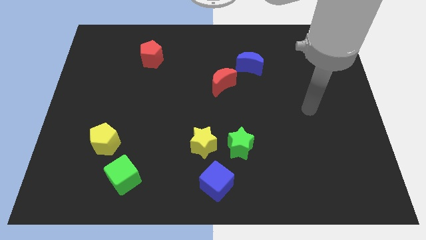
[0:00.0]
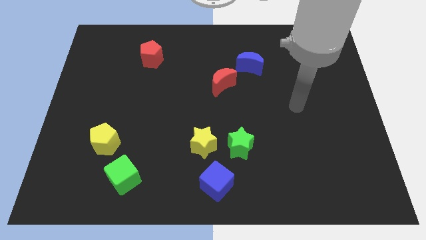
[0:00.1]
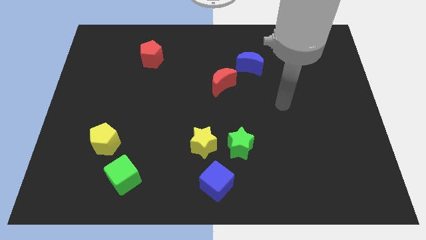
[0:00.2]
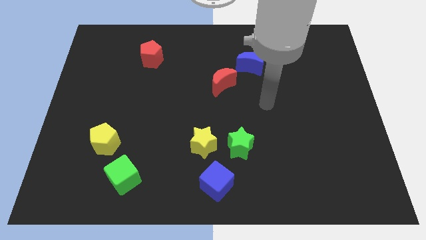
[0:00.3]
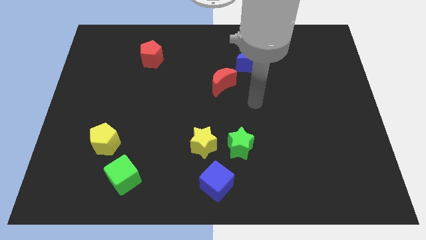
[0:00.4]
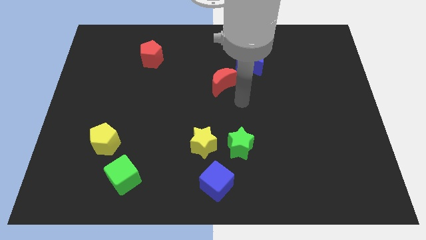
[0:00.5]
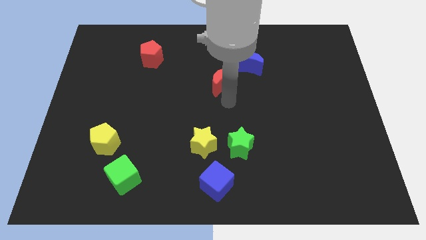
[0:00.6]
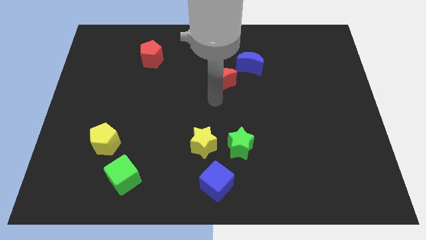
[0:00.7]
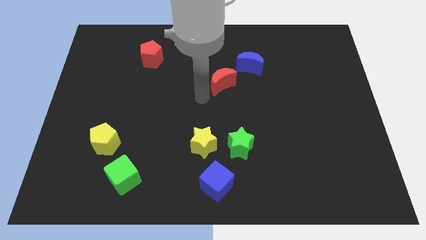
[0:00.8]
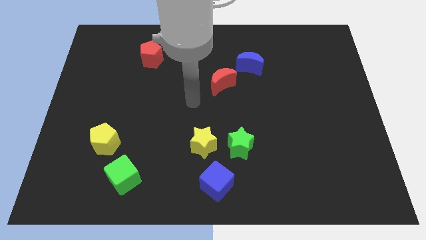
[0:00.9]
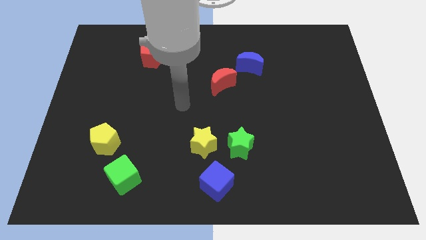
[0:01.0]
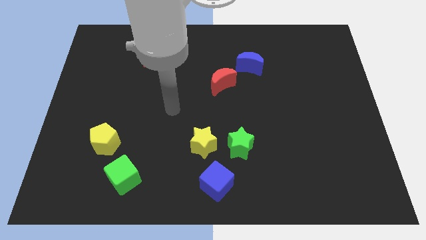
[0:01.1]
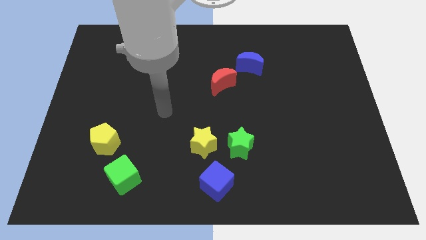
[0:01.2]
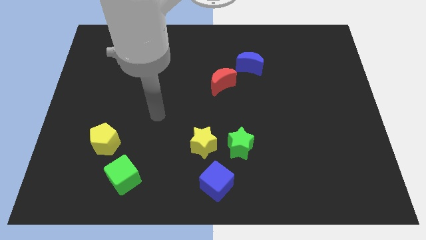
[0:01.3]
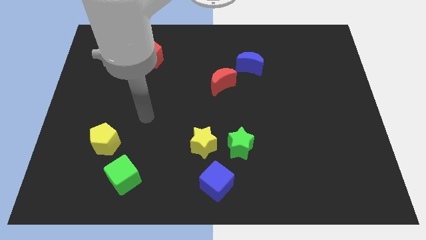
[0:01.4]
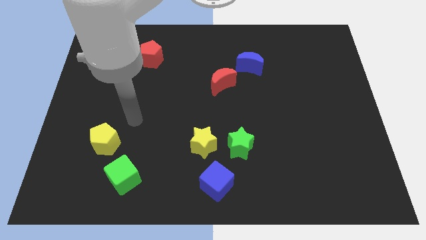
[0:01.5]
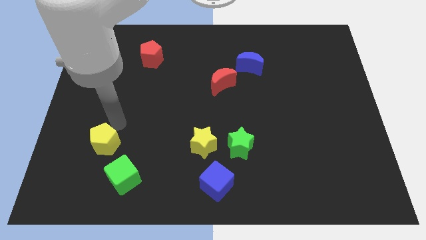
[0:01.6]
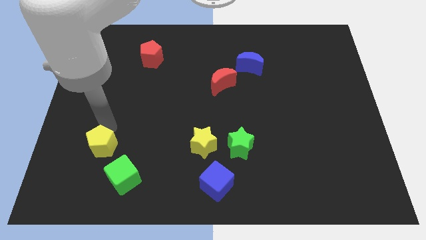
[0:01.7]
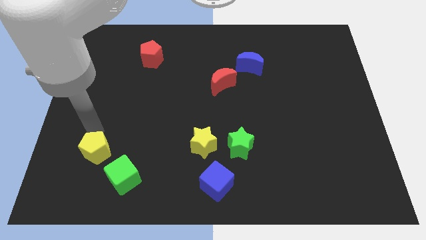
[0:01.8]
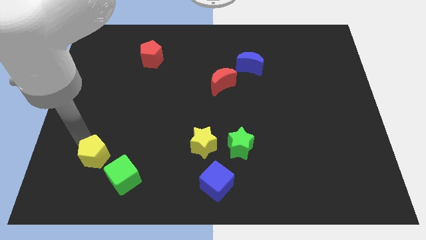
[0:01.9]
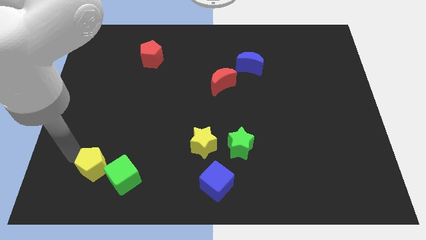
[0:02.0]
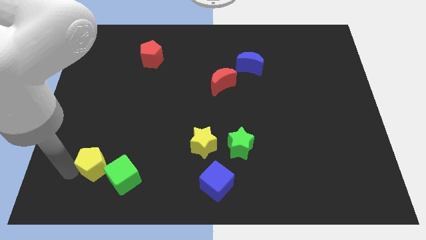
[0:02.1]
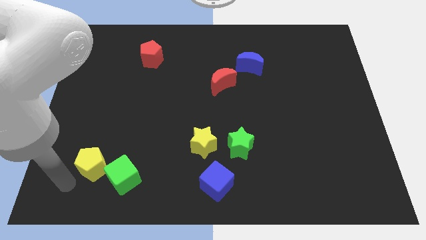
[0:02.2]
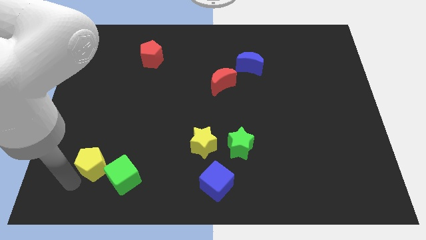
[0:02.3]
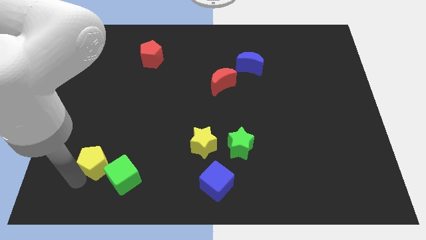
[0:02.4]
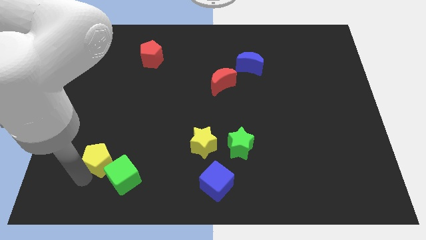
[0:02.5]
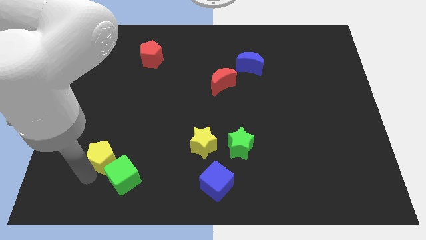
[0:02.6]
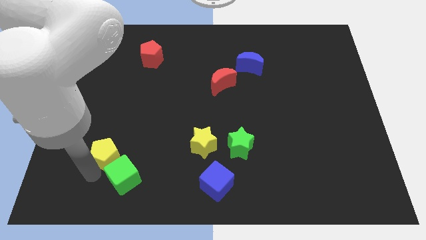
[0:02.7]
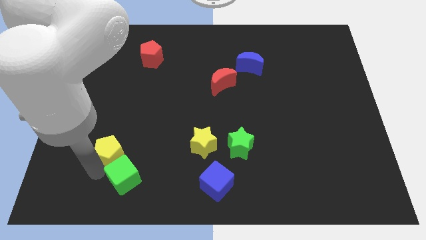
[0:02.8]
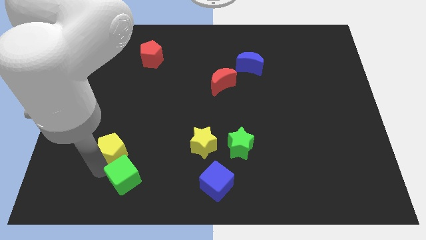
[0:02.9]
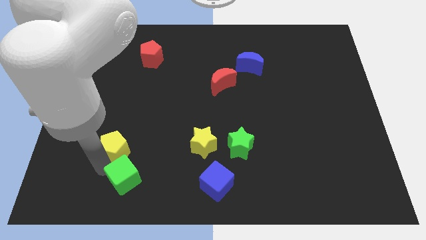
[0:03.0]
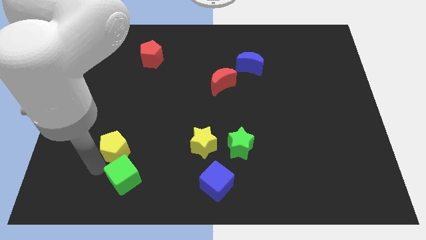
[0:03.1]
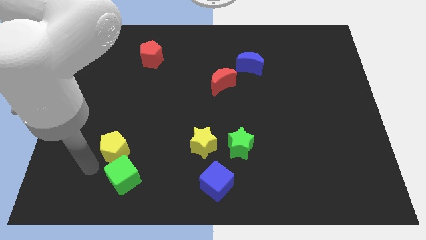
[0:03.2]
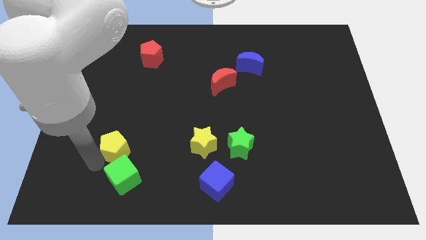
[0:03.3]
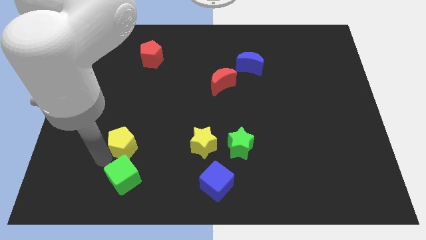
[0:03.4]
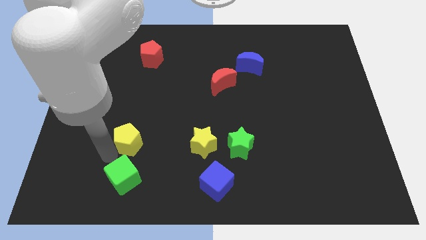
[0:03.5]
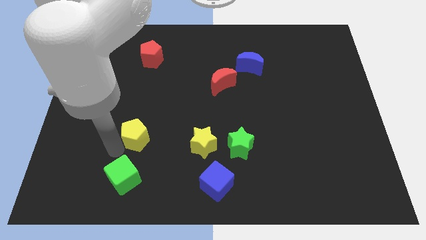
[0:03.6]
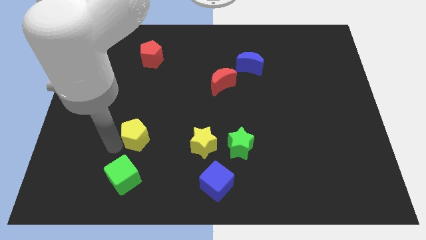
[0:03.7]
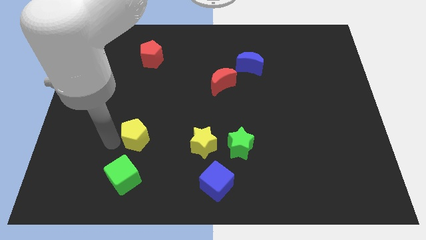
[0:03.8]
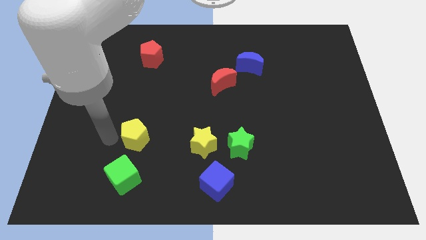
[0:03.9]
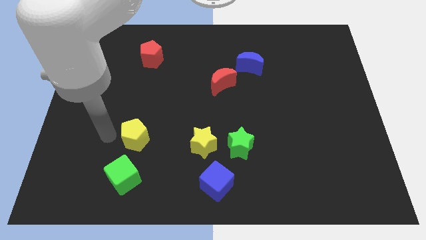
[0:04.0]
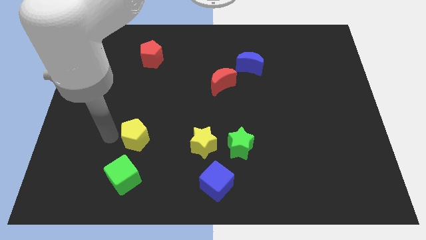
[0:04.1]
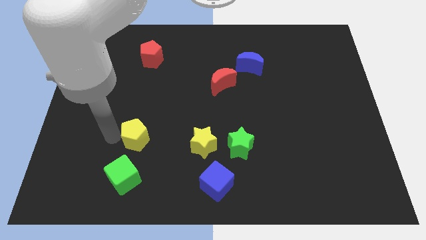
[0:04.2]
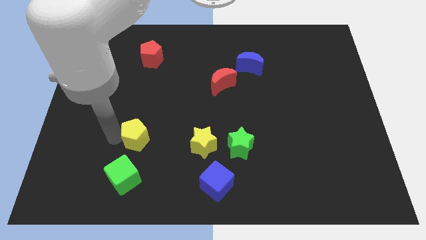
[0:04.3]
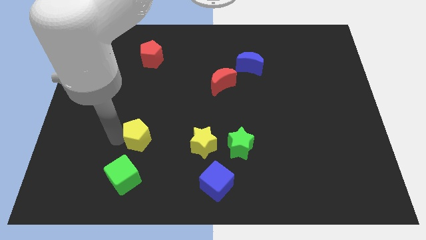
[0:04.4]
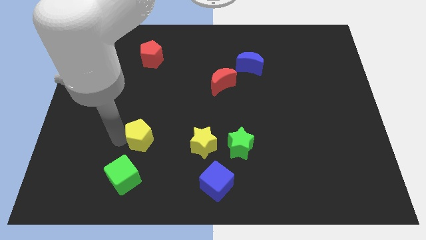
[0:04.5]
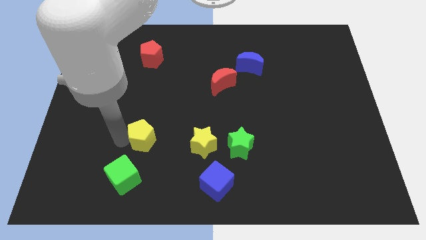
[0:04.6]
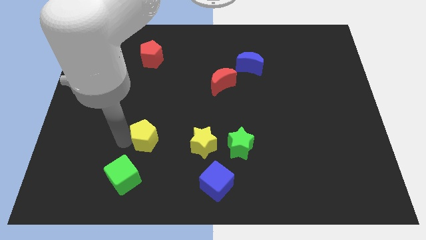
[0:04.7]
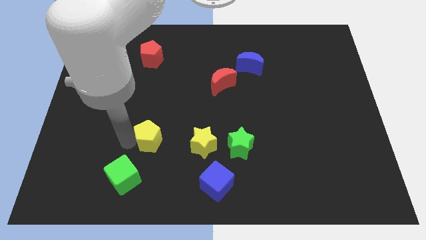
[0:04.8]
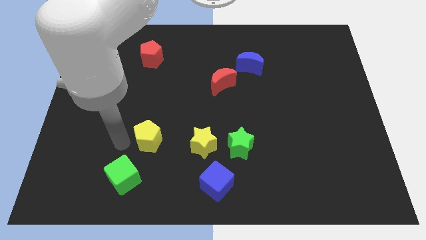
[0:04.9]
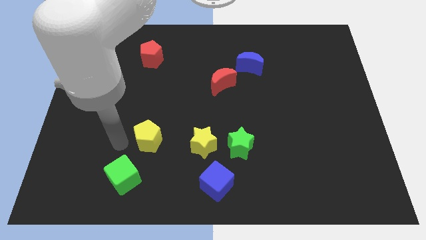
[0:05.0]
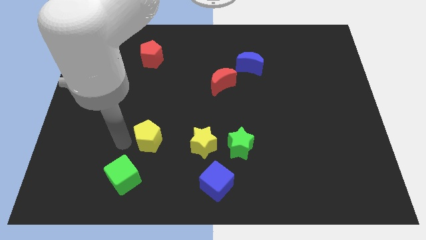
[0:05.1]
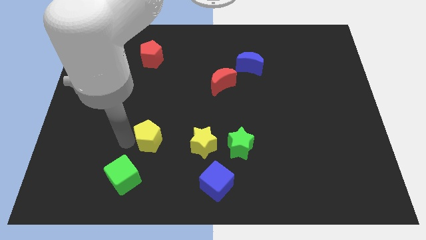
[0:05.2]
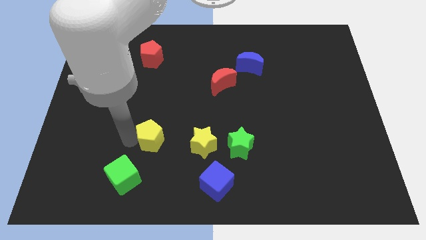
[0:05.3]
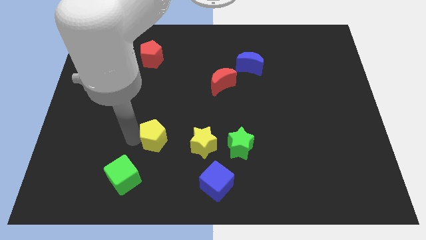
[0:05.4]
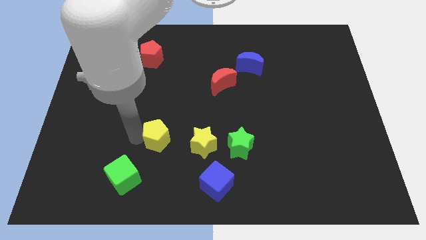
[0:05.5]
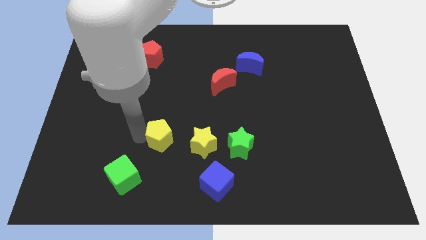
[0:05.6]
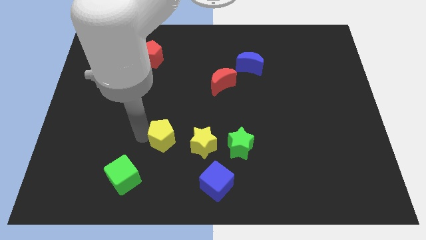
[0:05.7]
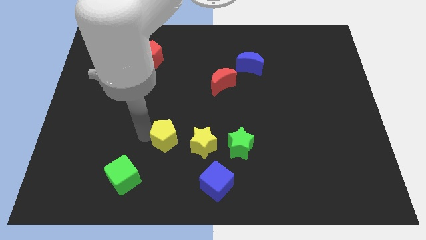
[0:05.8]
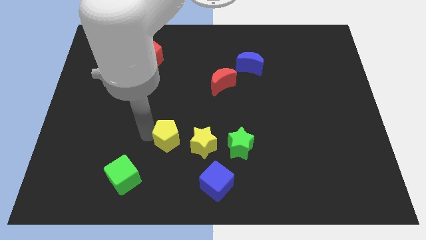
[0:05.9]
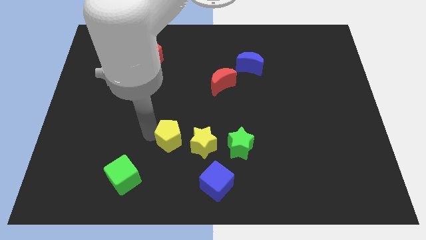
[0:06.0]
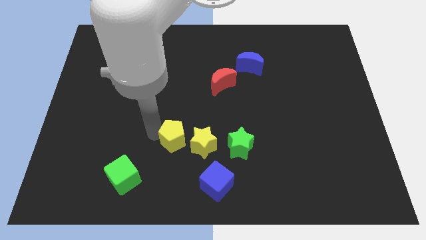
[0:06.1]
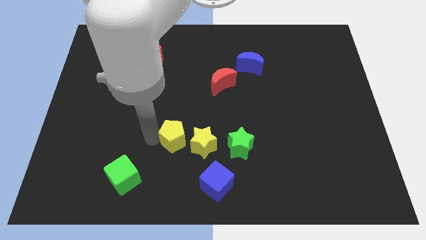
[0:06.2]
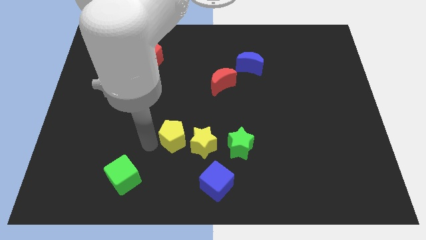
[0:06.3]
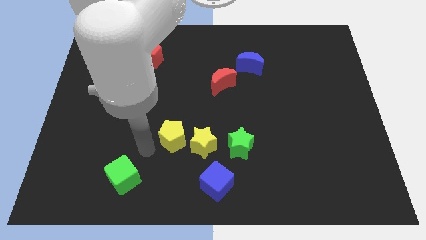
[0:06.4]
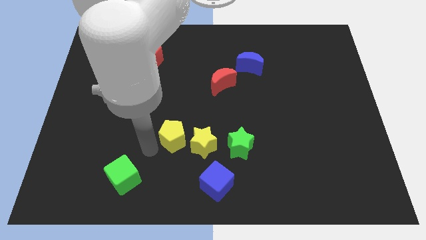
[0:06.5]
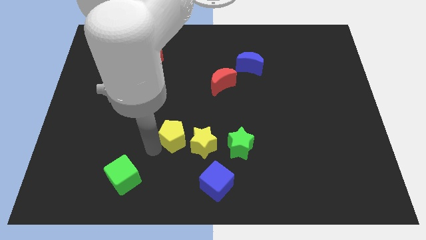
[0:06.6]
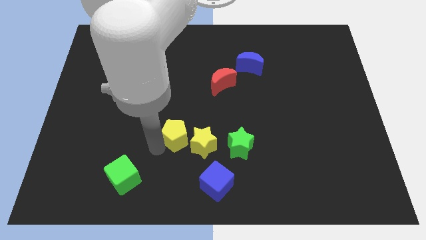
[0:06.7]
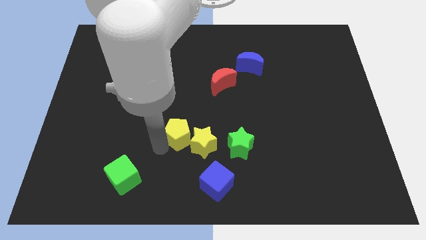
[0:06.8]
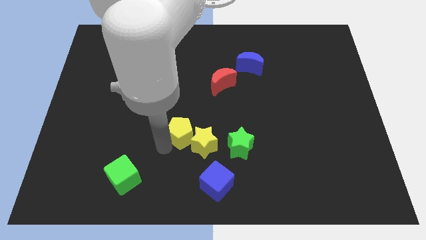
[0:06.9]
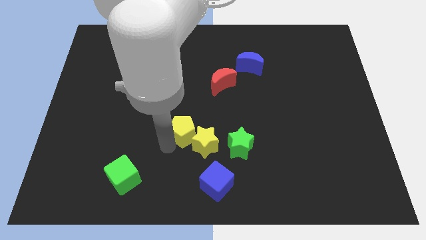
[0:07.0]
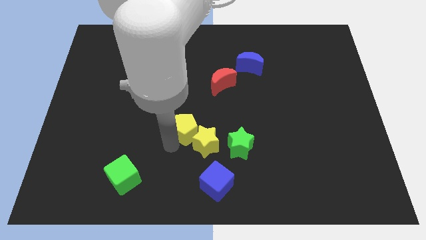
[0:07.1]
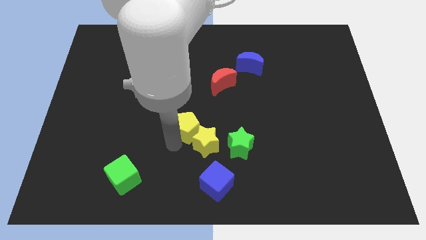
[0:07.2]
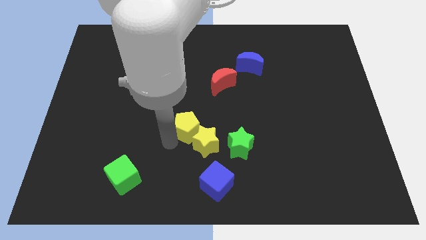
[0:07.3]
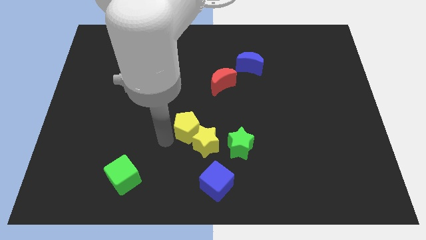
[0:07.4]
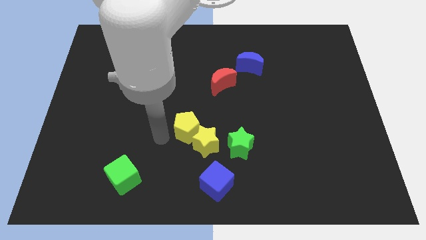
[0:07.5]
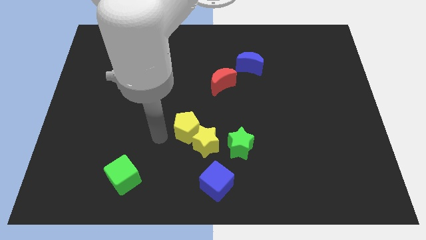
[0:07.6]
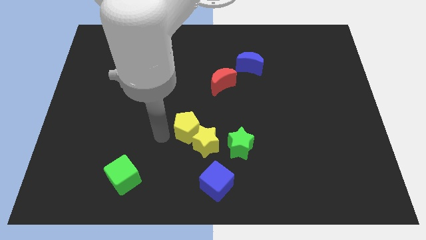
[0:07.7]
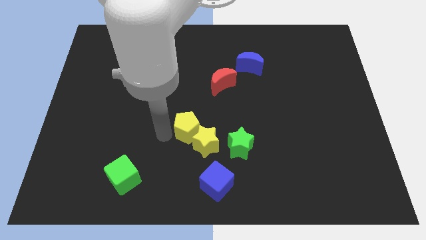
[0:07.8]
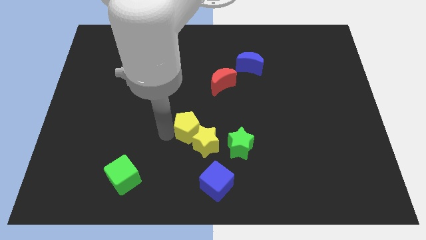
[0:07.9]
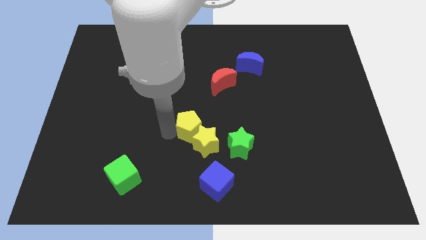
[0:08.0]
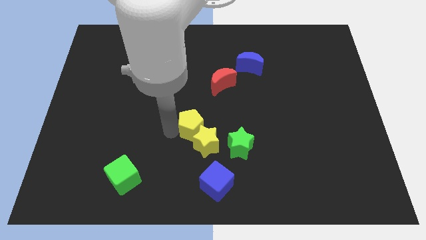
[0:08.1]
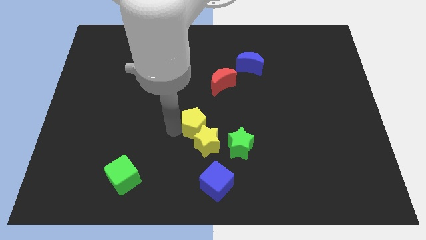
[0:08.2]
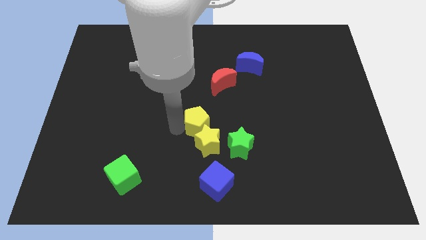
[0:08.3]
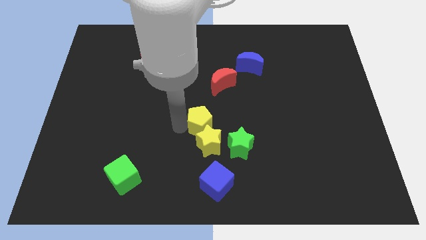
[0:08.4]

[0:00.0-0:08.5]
slide the yellow pentagon below the red moon
